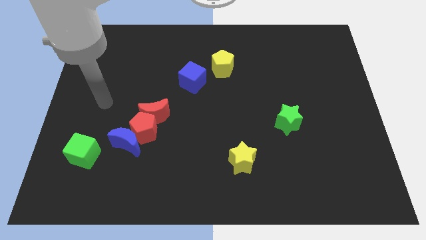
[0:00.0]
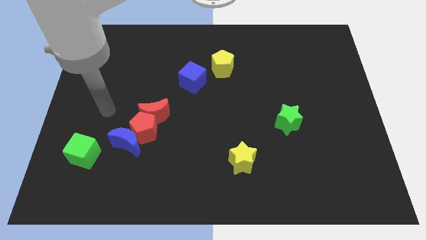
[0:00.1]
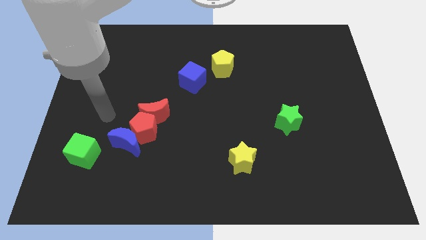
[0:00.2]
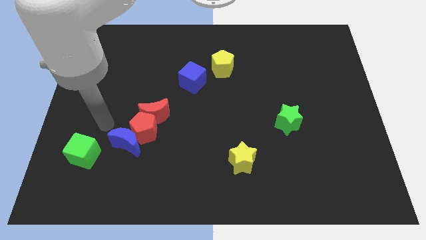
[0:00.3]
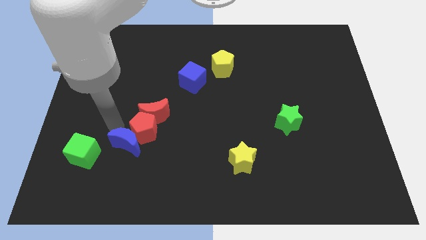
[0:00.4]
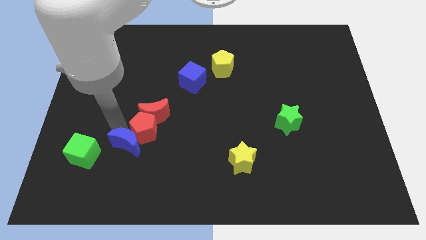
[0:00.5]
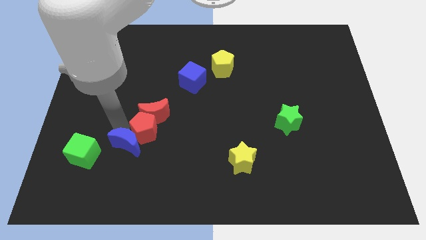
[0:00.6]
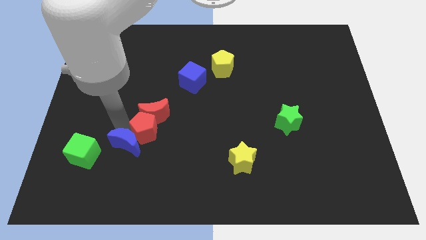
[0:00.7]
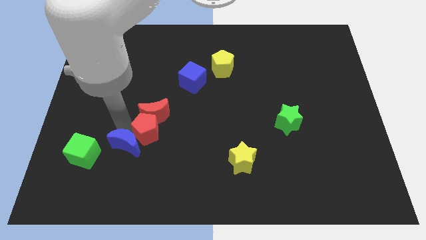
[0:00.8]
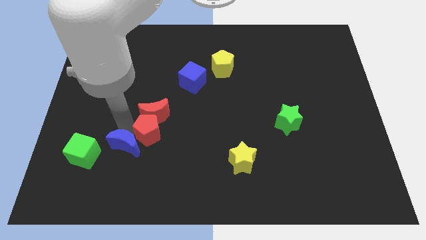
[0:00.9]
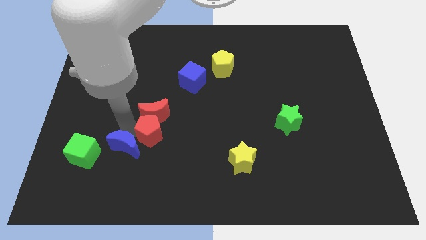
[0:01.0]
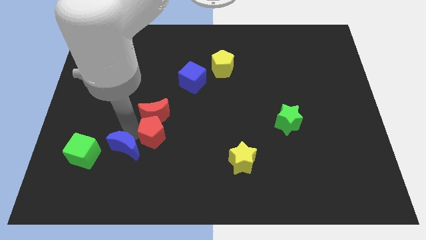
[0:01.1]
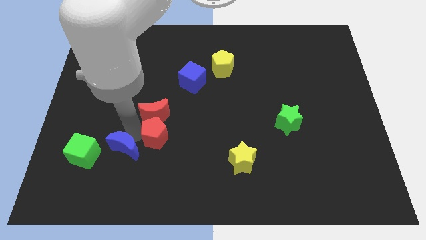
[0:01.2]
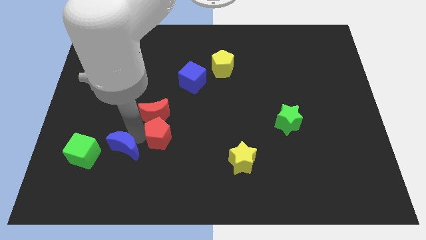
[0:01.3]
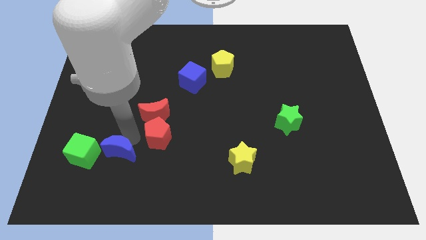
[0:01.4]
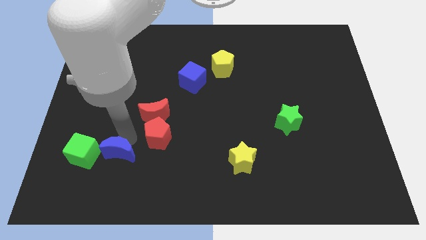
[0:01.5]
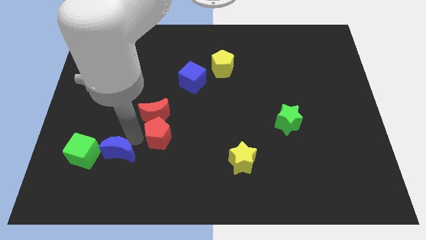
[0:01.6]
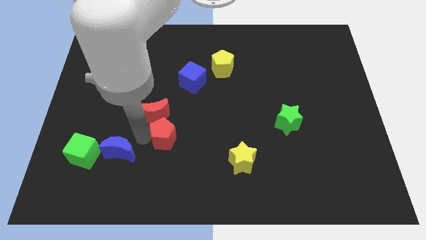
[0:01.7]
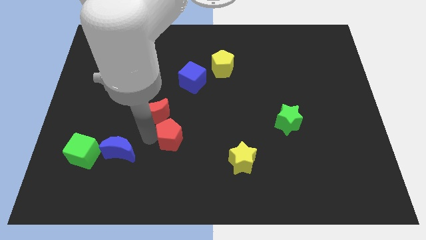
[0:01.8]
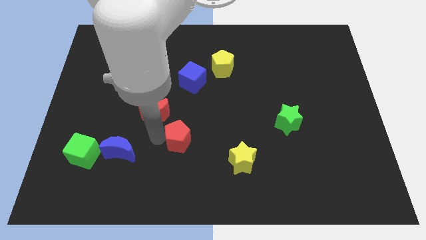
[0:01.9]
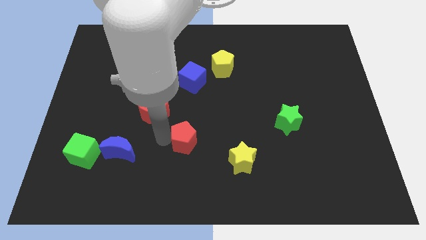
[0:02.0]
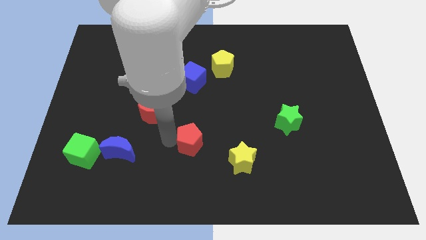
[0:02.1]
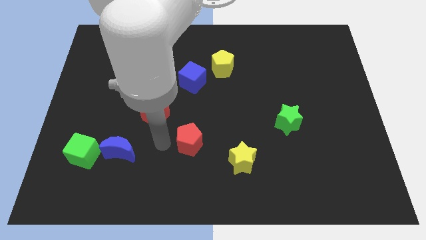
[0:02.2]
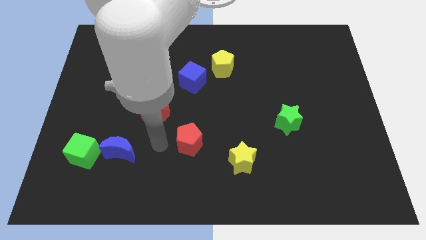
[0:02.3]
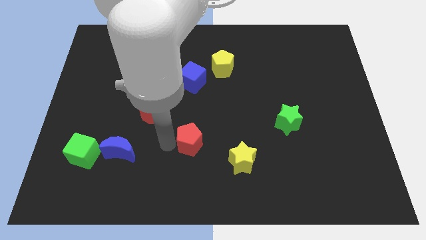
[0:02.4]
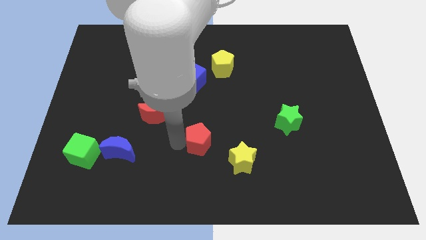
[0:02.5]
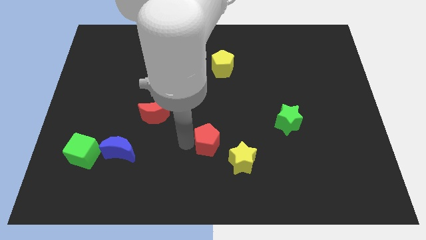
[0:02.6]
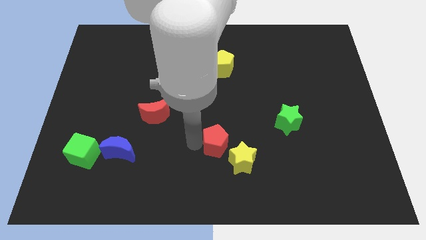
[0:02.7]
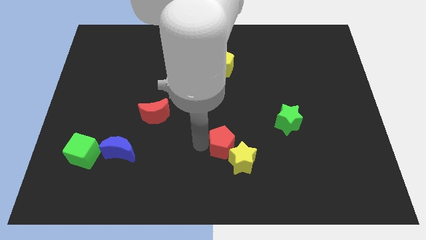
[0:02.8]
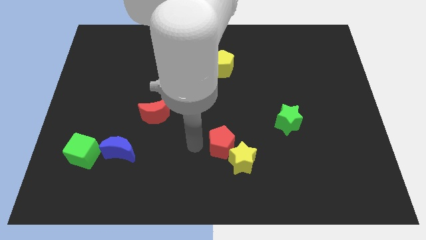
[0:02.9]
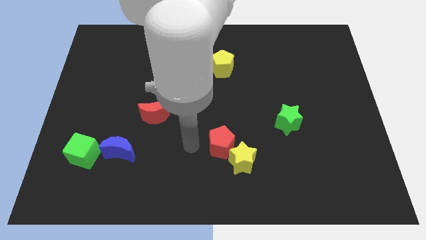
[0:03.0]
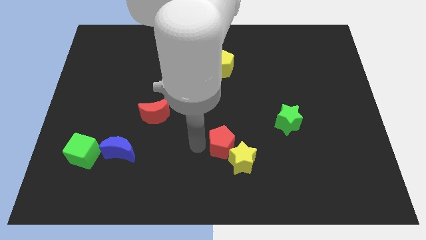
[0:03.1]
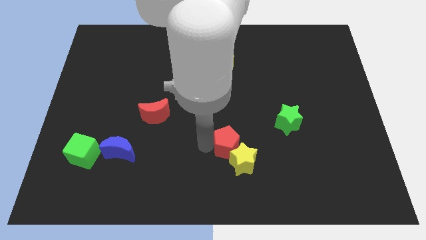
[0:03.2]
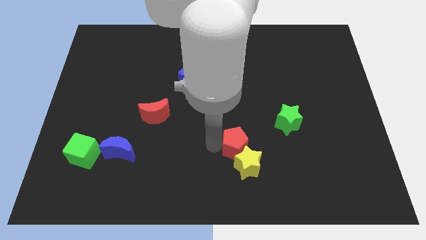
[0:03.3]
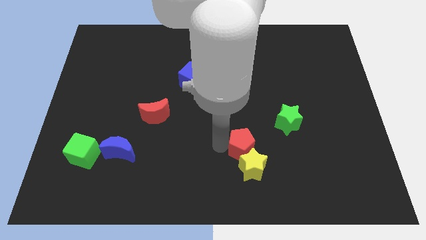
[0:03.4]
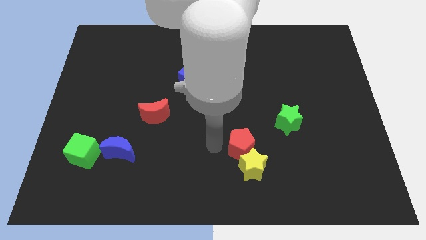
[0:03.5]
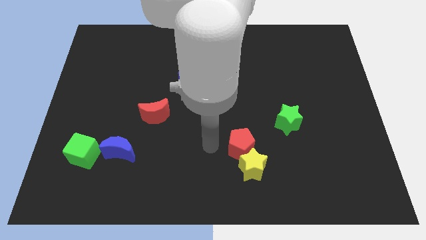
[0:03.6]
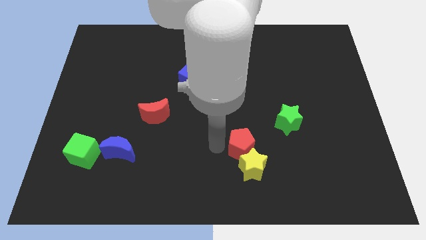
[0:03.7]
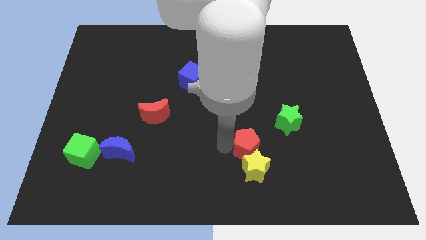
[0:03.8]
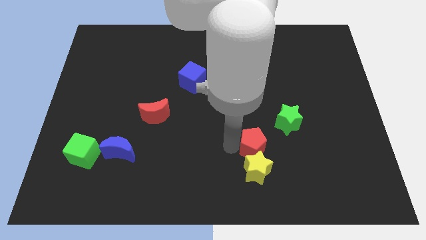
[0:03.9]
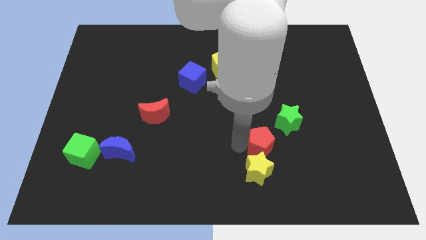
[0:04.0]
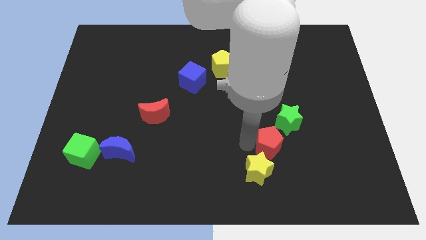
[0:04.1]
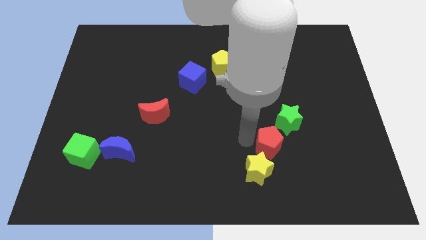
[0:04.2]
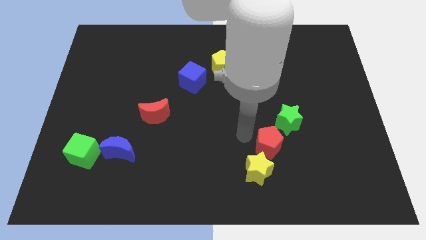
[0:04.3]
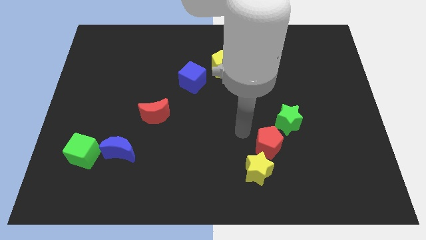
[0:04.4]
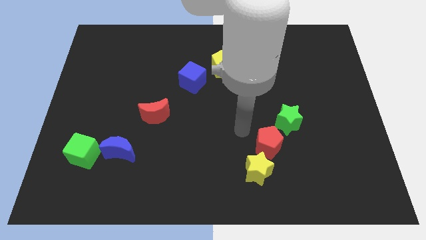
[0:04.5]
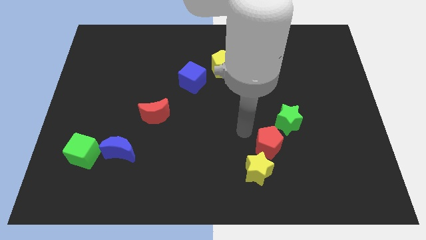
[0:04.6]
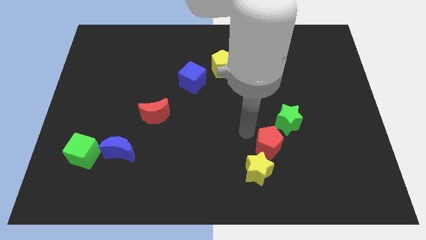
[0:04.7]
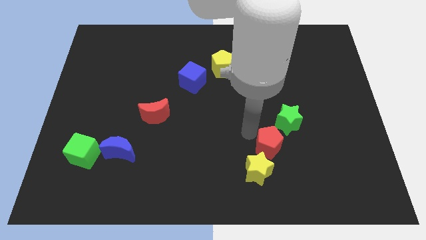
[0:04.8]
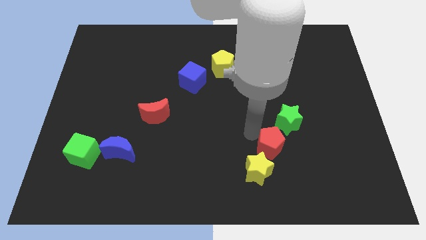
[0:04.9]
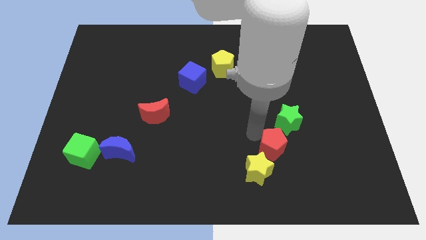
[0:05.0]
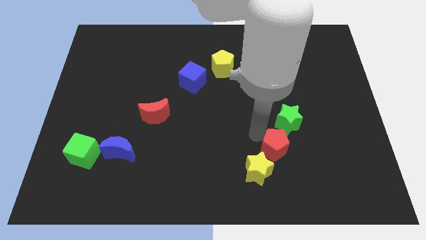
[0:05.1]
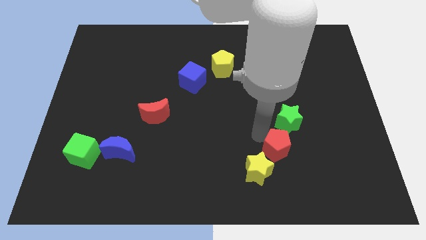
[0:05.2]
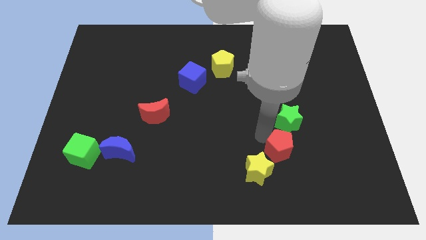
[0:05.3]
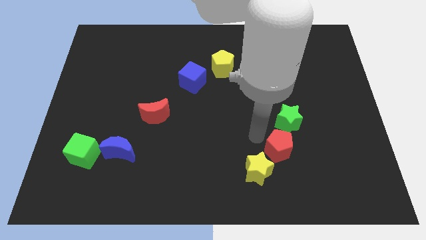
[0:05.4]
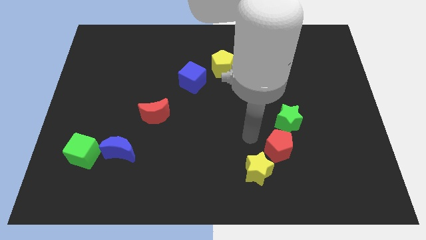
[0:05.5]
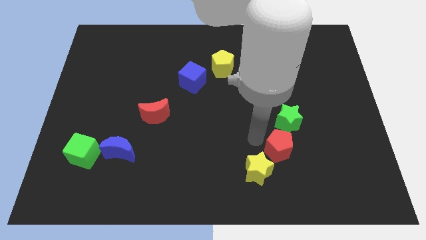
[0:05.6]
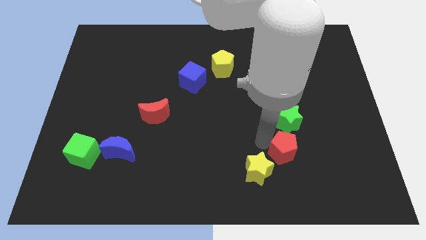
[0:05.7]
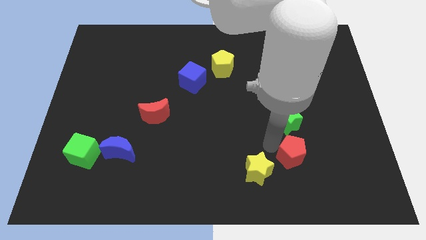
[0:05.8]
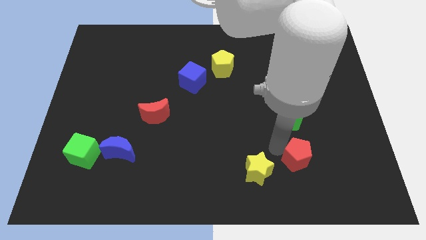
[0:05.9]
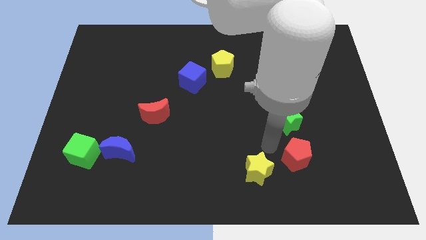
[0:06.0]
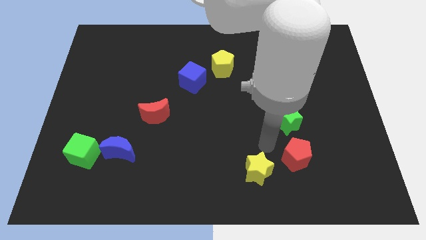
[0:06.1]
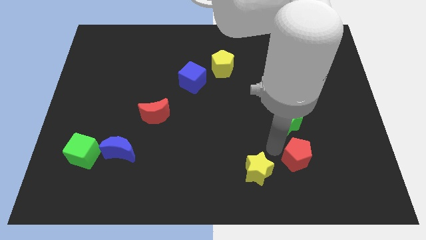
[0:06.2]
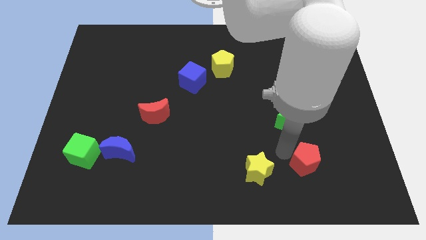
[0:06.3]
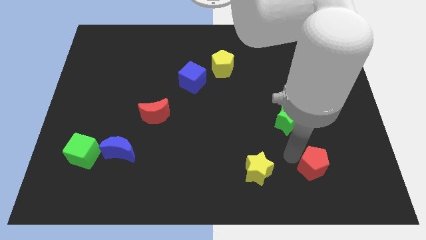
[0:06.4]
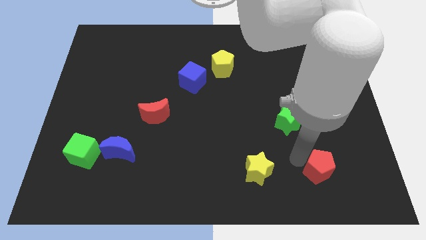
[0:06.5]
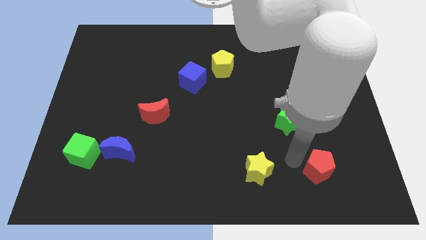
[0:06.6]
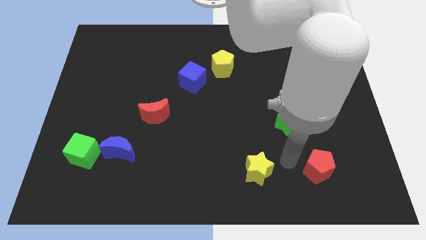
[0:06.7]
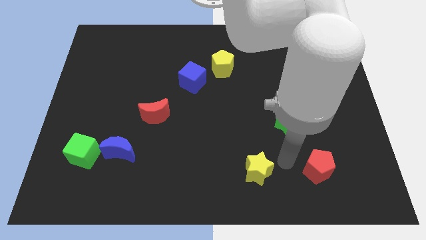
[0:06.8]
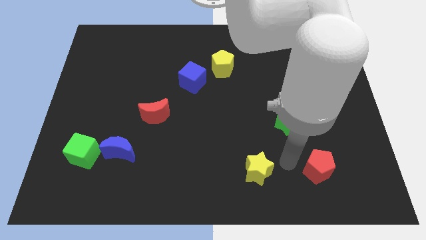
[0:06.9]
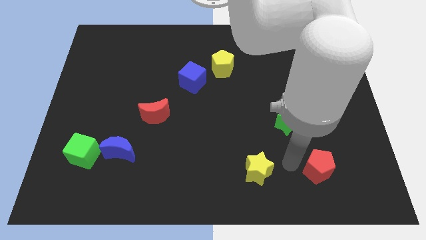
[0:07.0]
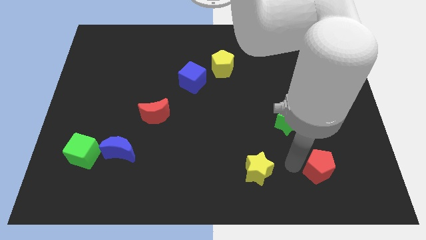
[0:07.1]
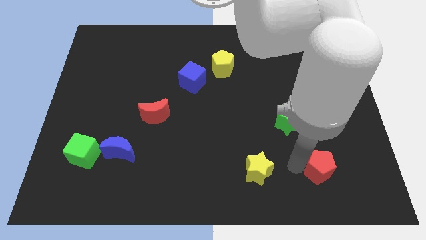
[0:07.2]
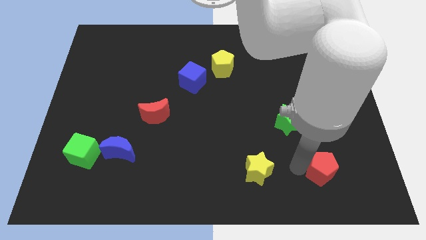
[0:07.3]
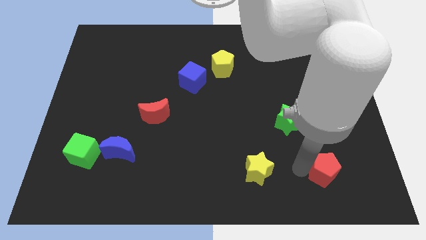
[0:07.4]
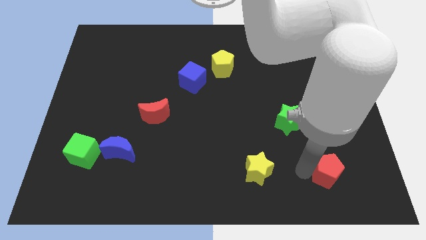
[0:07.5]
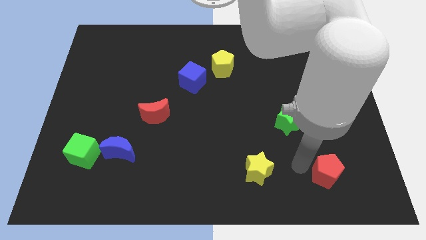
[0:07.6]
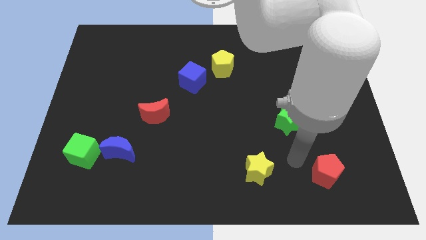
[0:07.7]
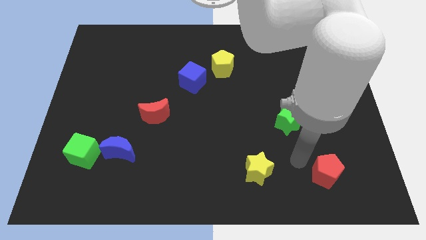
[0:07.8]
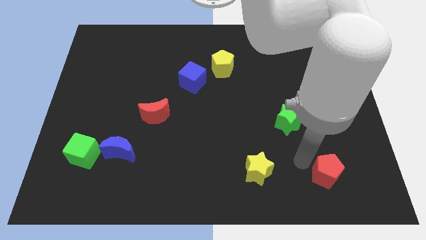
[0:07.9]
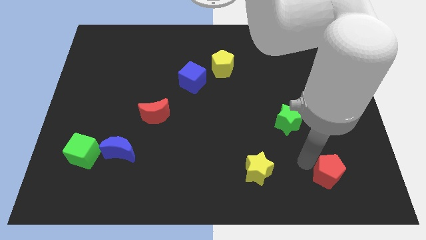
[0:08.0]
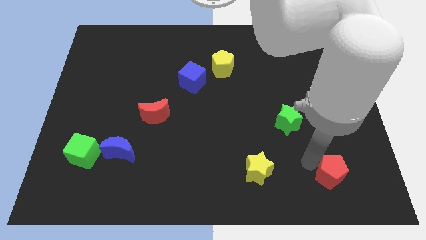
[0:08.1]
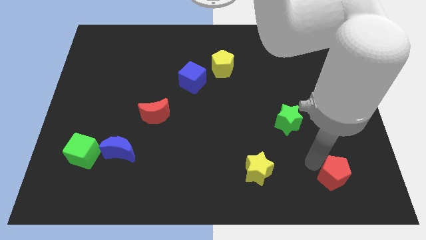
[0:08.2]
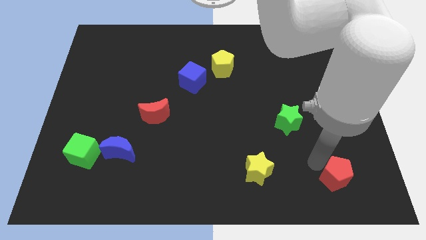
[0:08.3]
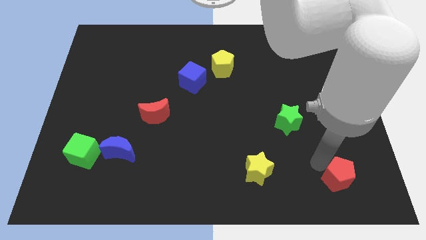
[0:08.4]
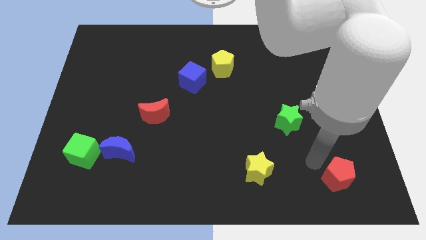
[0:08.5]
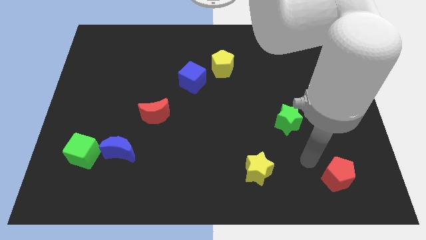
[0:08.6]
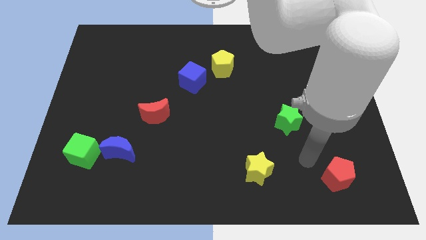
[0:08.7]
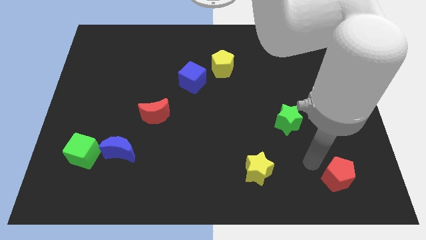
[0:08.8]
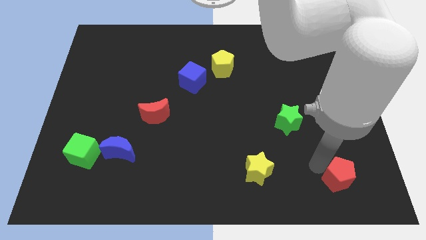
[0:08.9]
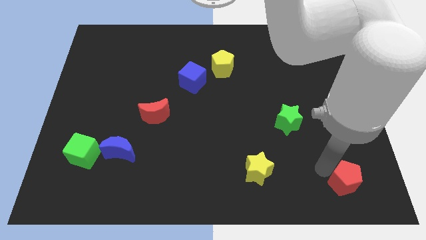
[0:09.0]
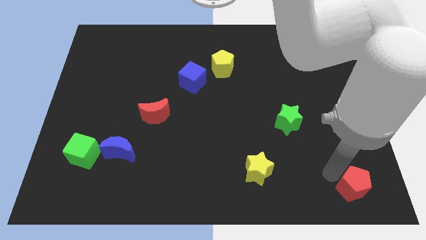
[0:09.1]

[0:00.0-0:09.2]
move the red pentagon to the lower right corner
